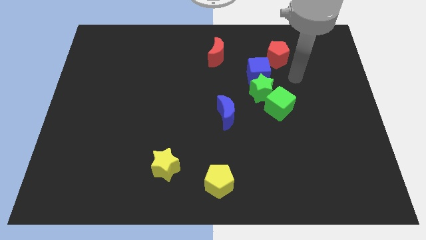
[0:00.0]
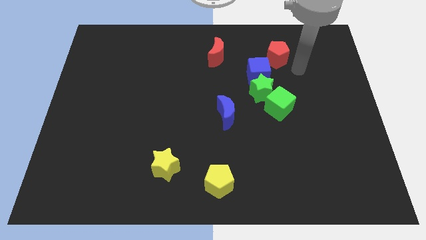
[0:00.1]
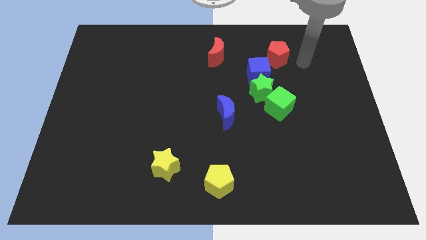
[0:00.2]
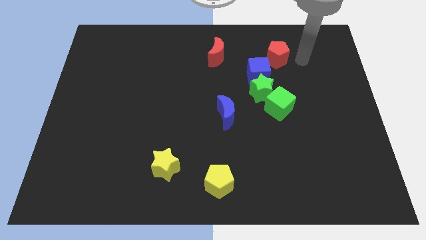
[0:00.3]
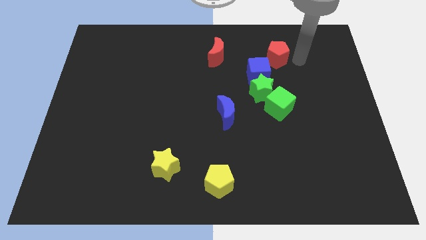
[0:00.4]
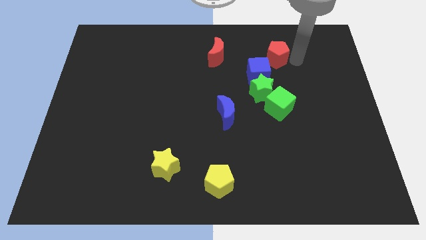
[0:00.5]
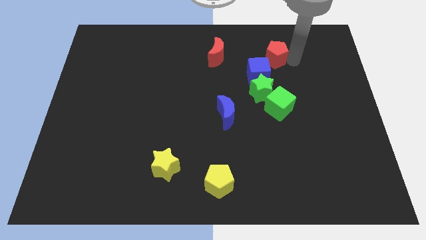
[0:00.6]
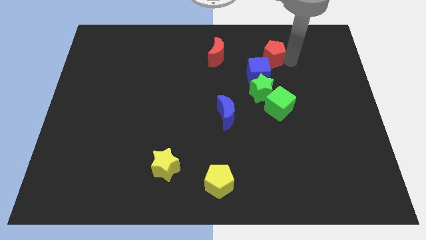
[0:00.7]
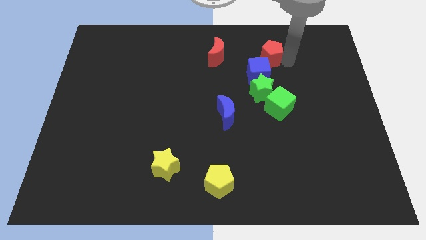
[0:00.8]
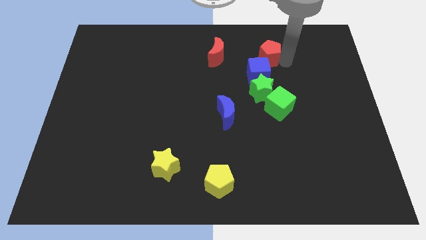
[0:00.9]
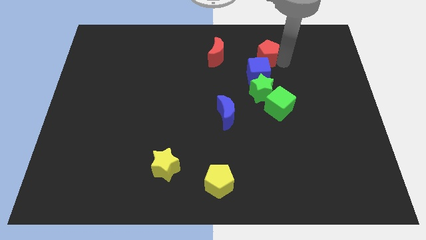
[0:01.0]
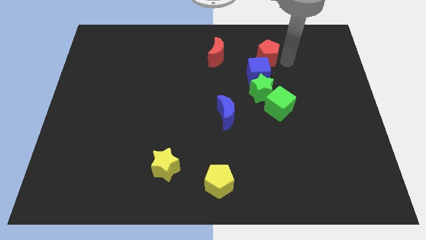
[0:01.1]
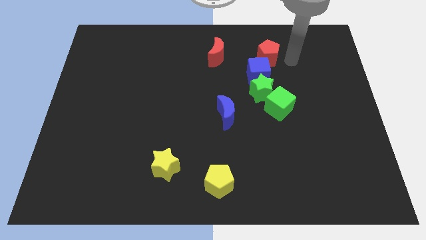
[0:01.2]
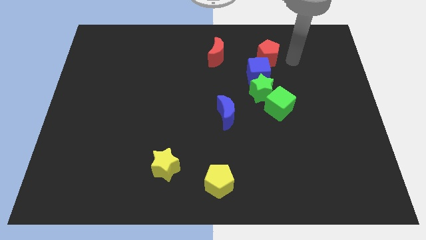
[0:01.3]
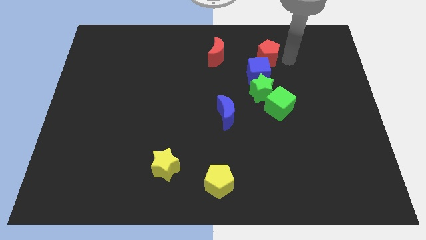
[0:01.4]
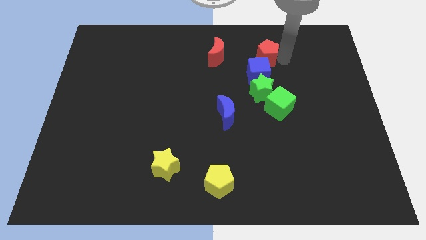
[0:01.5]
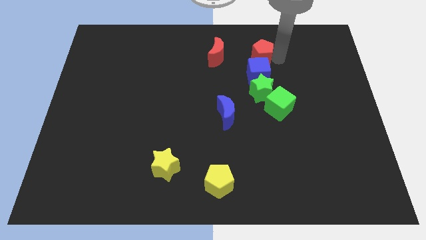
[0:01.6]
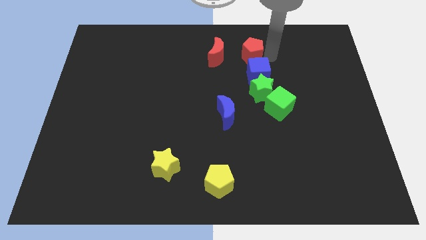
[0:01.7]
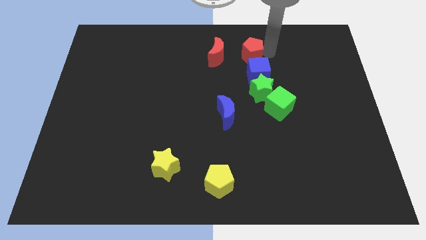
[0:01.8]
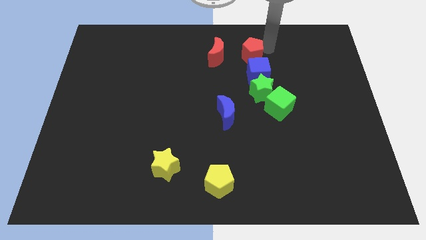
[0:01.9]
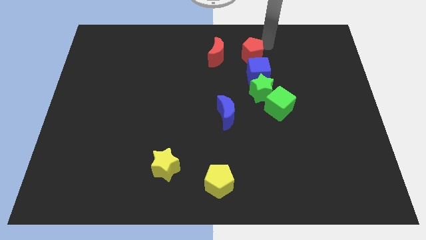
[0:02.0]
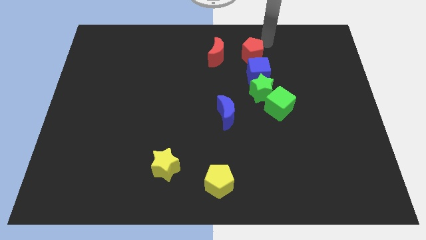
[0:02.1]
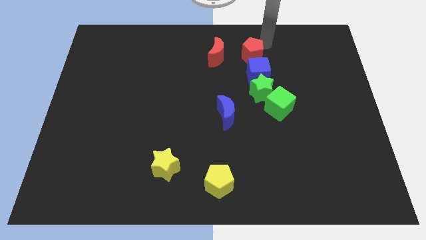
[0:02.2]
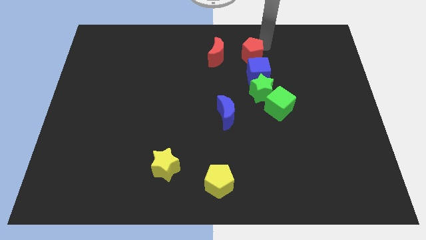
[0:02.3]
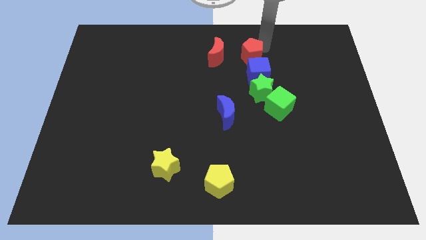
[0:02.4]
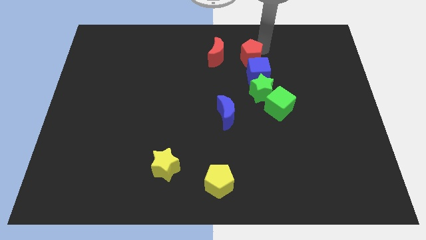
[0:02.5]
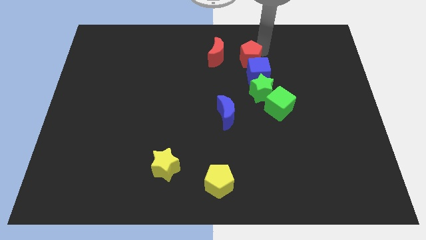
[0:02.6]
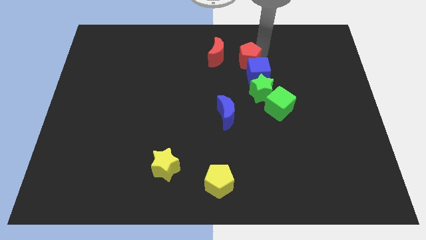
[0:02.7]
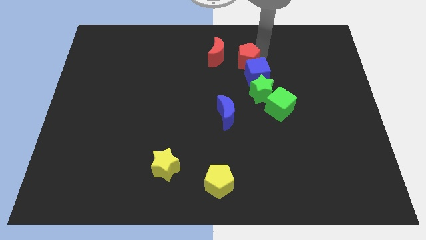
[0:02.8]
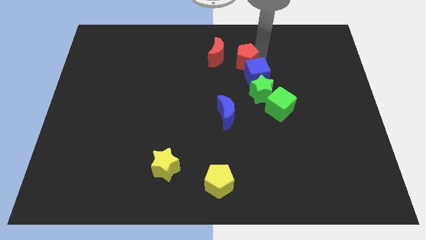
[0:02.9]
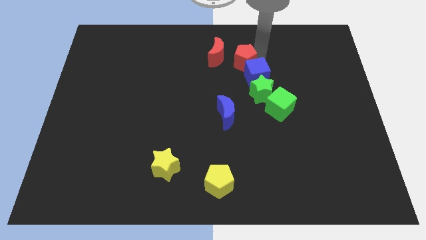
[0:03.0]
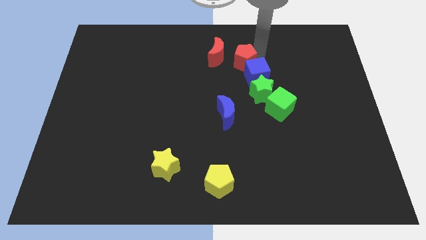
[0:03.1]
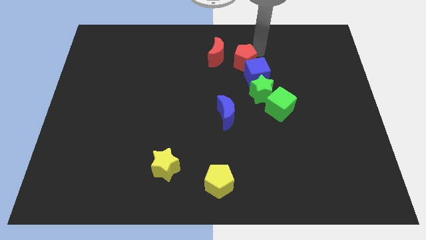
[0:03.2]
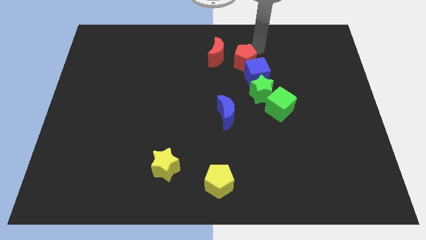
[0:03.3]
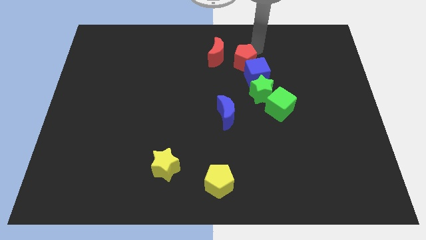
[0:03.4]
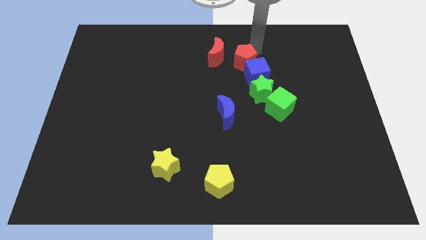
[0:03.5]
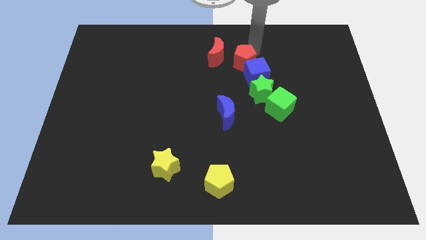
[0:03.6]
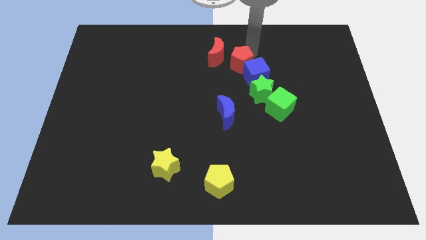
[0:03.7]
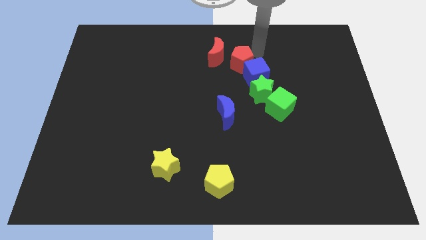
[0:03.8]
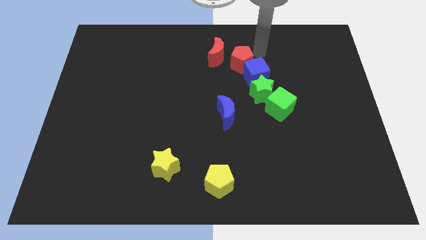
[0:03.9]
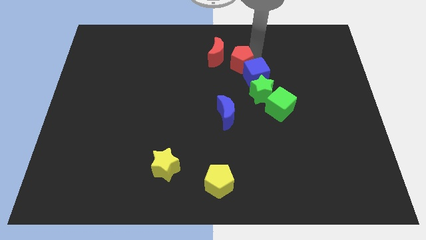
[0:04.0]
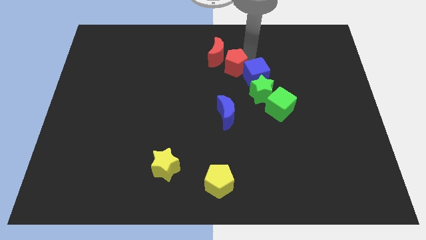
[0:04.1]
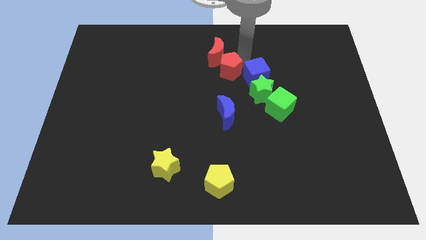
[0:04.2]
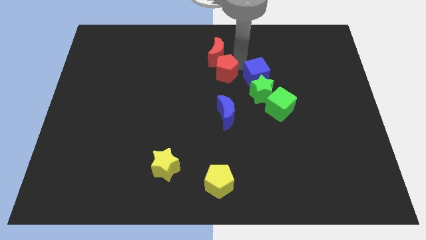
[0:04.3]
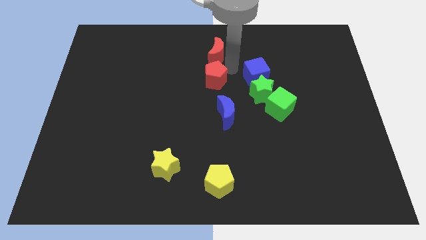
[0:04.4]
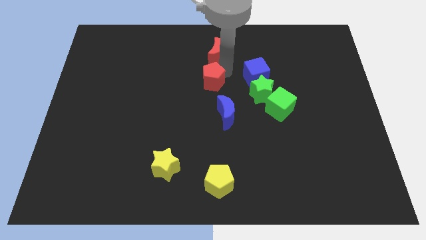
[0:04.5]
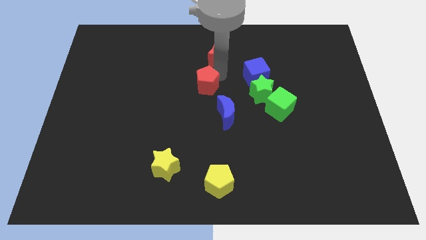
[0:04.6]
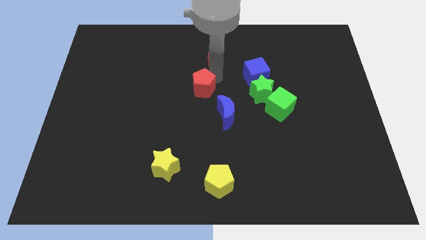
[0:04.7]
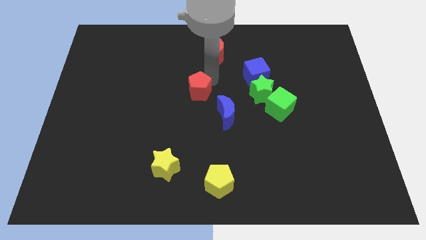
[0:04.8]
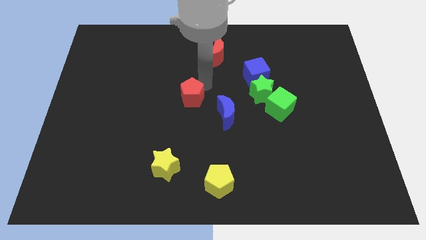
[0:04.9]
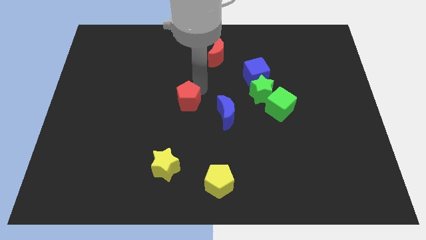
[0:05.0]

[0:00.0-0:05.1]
slide the red pentagon just left of the blue moon

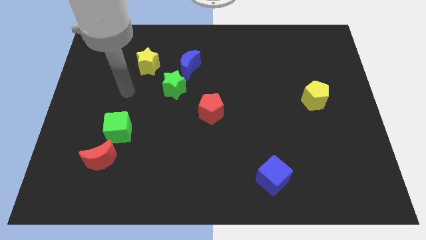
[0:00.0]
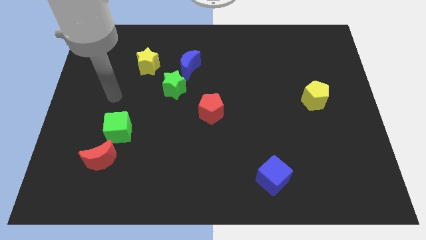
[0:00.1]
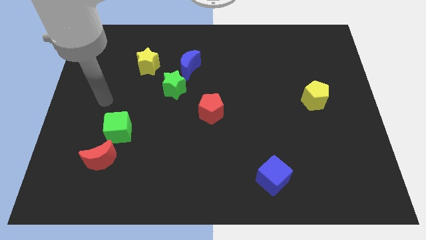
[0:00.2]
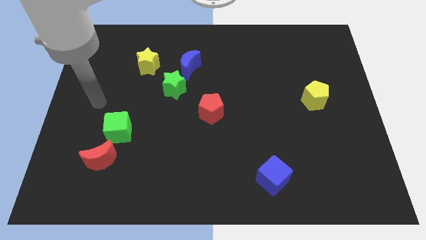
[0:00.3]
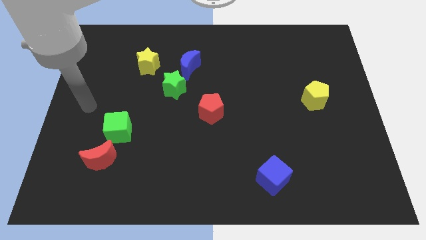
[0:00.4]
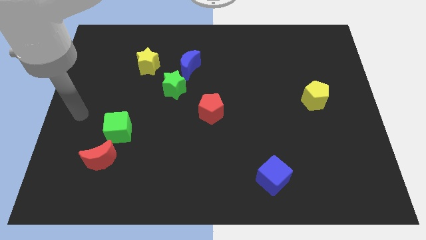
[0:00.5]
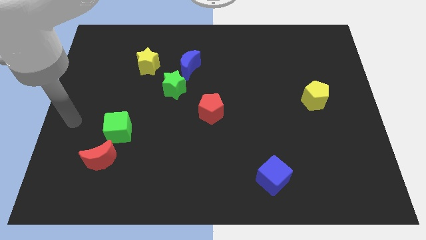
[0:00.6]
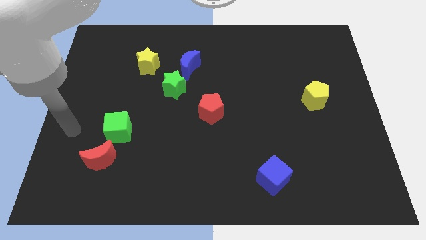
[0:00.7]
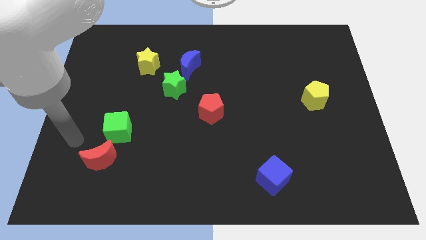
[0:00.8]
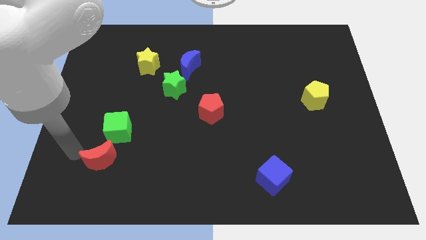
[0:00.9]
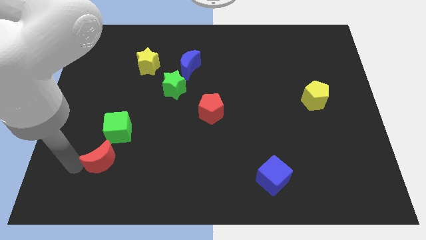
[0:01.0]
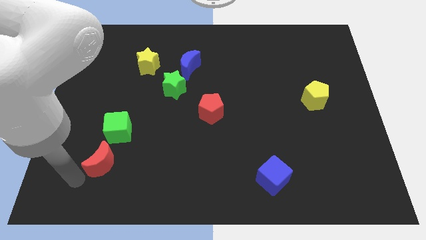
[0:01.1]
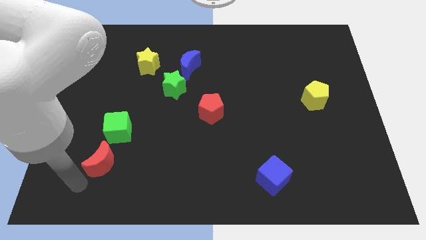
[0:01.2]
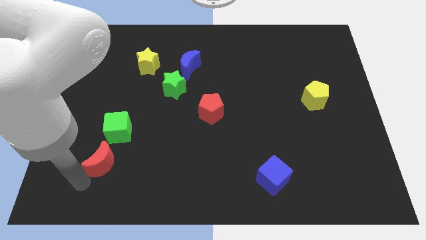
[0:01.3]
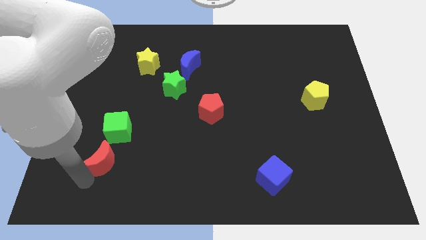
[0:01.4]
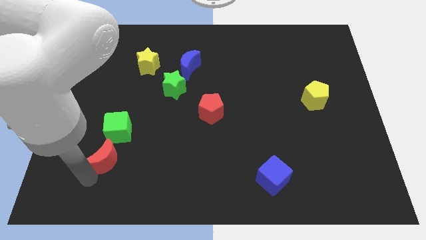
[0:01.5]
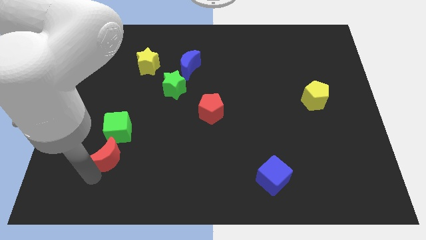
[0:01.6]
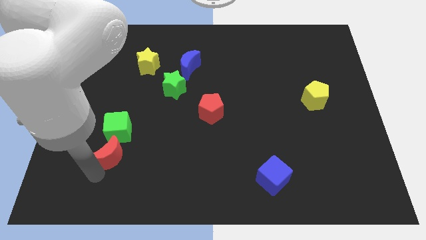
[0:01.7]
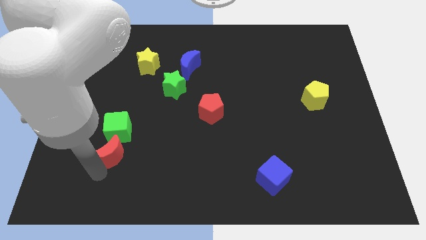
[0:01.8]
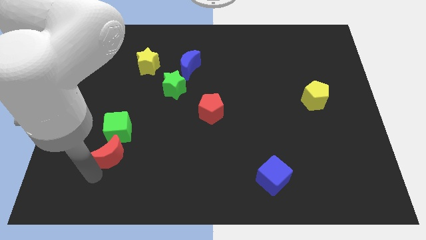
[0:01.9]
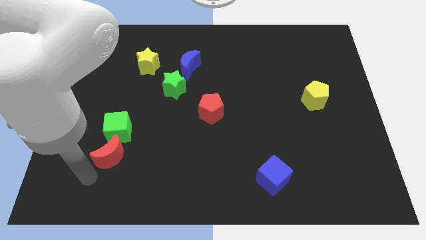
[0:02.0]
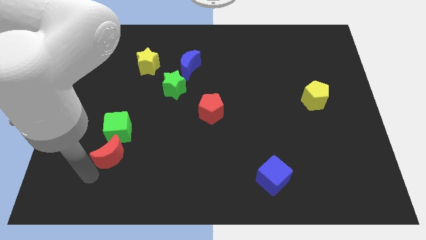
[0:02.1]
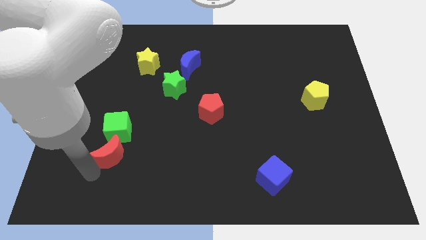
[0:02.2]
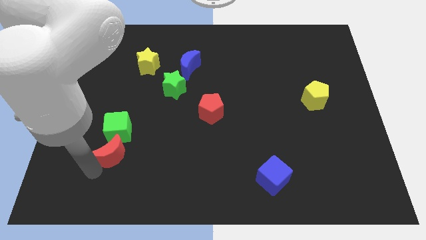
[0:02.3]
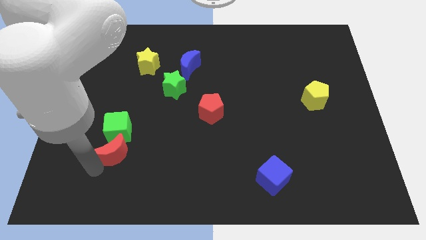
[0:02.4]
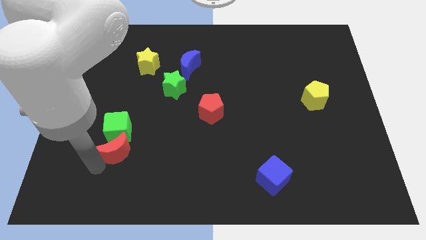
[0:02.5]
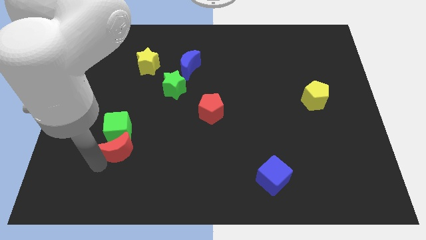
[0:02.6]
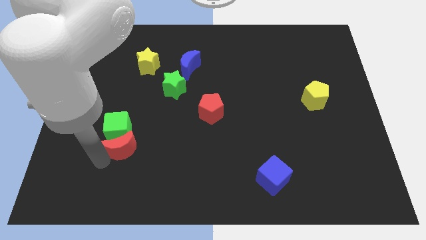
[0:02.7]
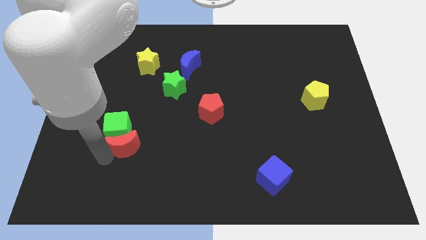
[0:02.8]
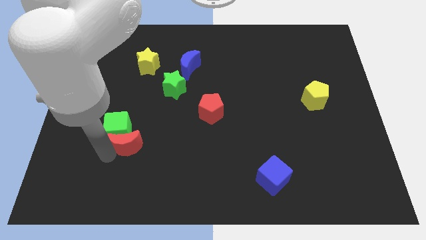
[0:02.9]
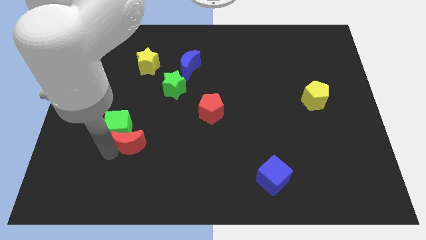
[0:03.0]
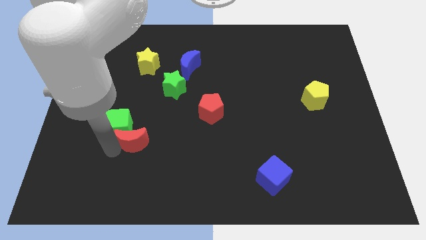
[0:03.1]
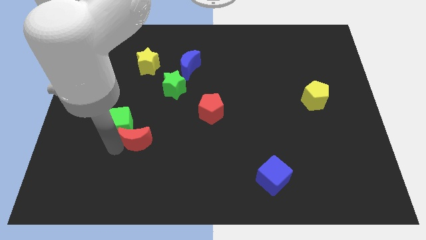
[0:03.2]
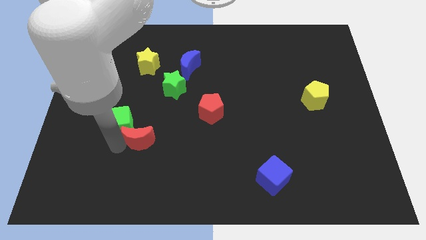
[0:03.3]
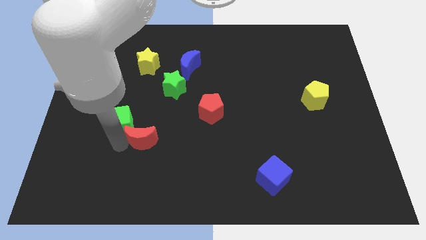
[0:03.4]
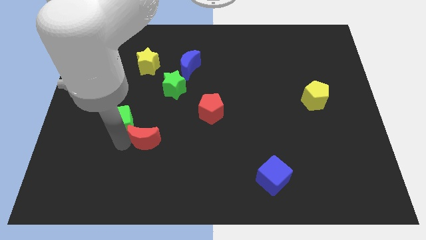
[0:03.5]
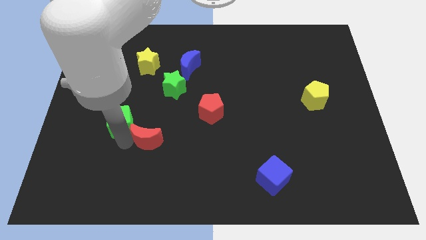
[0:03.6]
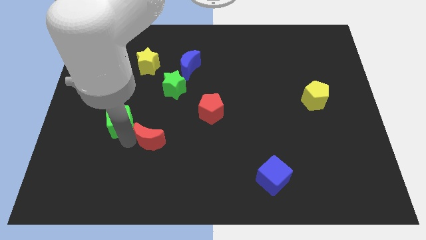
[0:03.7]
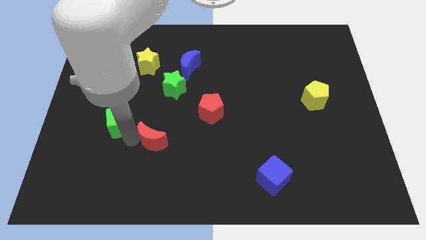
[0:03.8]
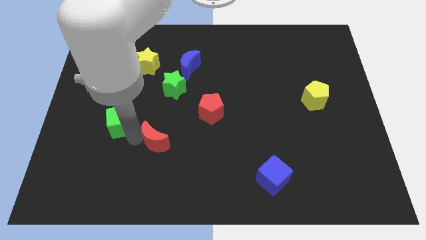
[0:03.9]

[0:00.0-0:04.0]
move the red moon to the bottom of the green star
